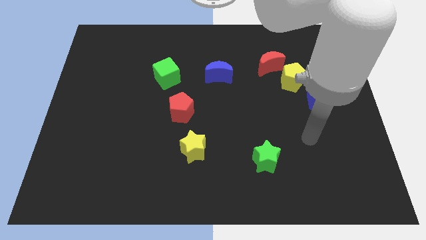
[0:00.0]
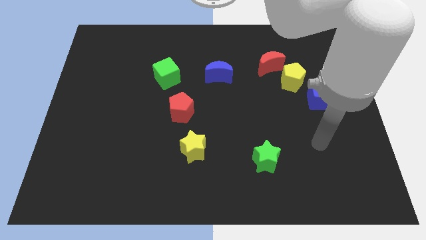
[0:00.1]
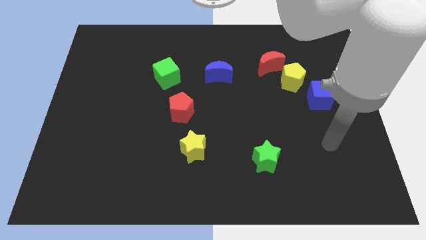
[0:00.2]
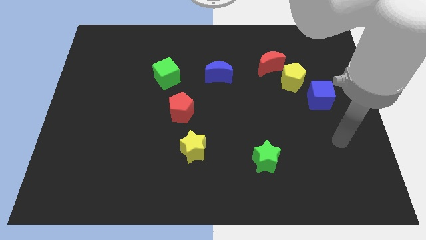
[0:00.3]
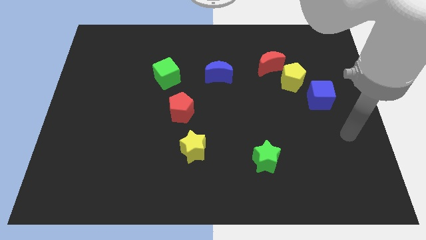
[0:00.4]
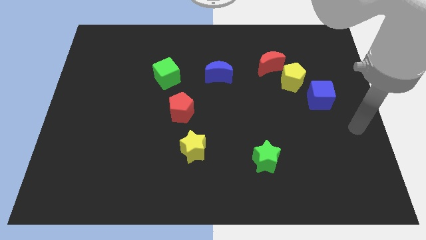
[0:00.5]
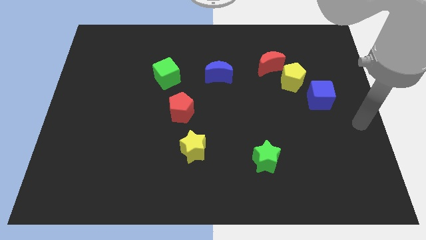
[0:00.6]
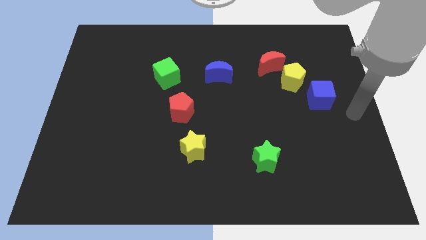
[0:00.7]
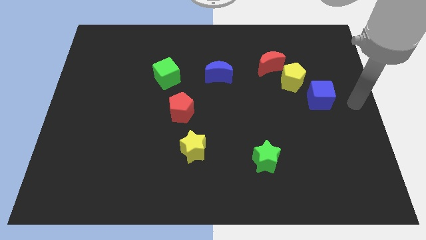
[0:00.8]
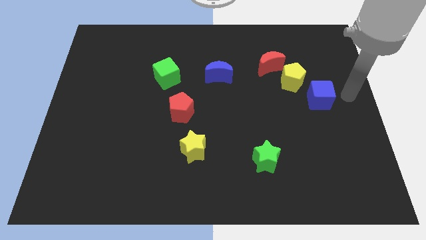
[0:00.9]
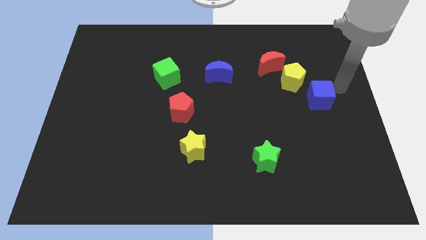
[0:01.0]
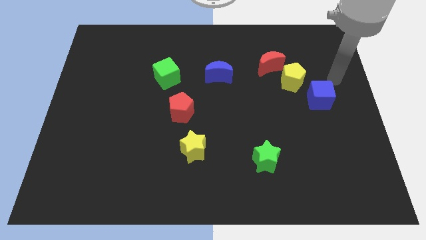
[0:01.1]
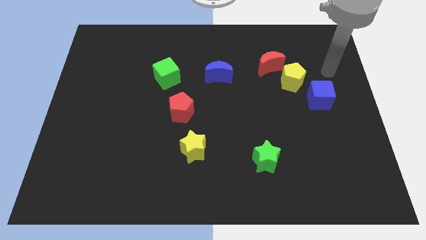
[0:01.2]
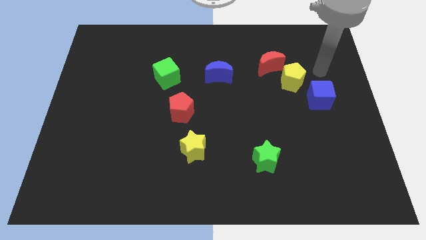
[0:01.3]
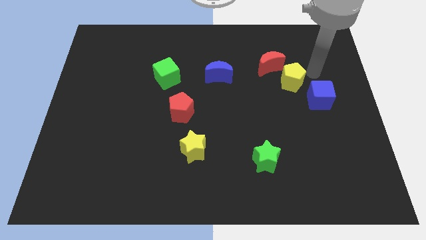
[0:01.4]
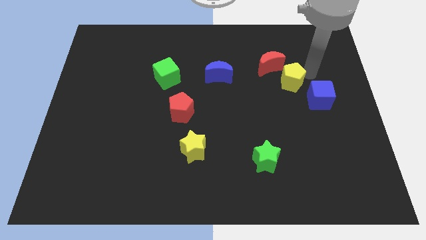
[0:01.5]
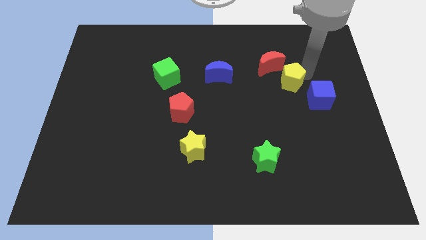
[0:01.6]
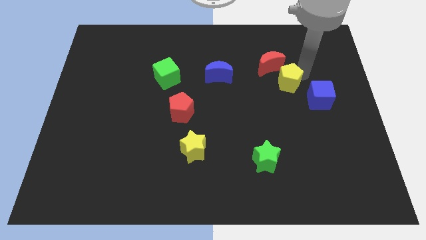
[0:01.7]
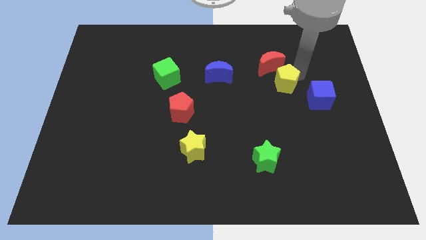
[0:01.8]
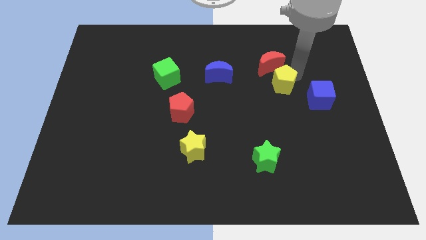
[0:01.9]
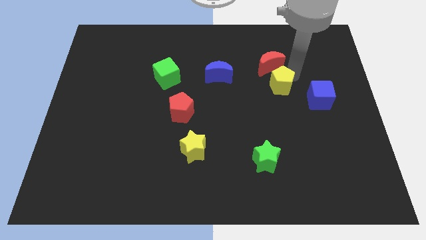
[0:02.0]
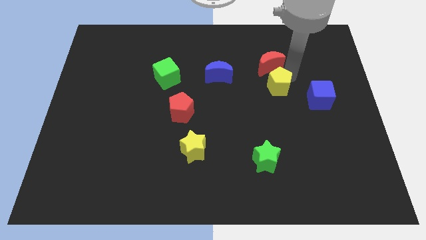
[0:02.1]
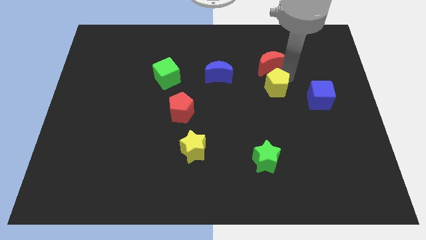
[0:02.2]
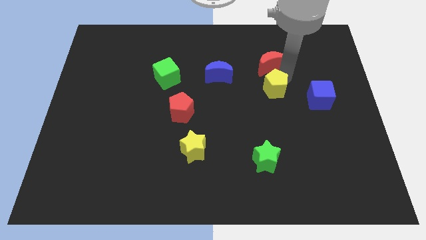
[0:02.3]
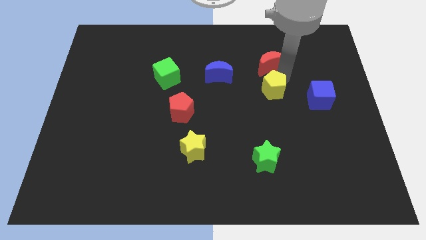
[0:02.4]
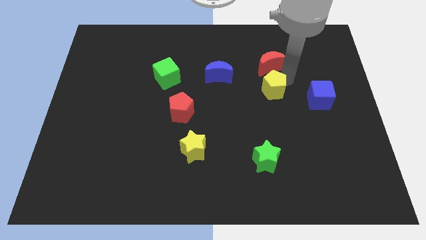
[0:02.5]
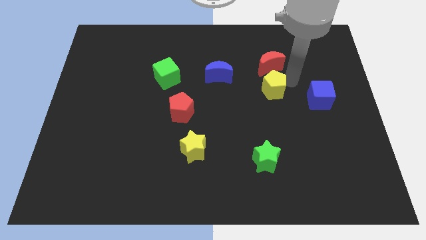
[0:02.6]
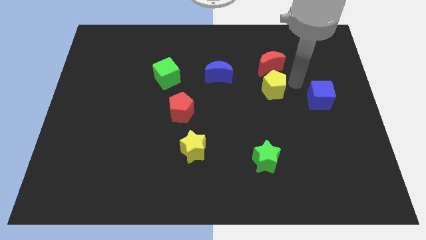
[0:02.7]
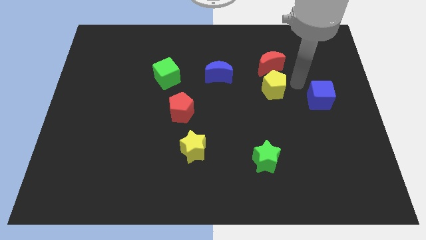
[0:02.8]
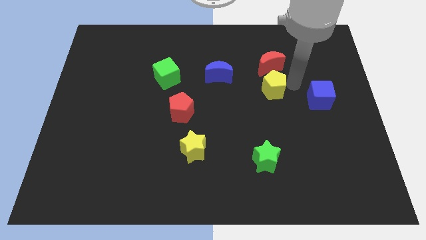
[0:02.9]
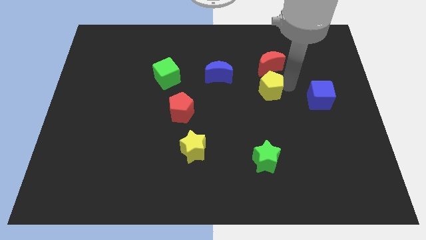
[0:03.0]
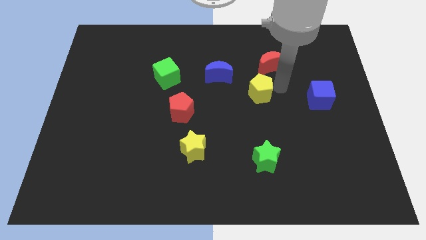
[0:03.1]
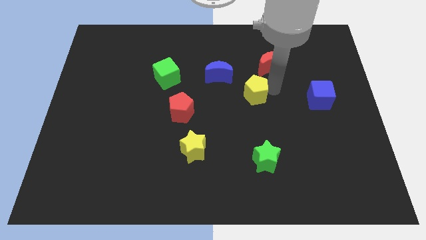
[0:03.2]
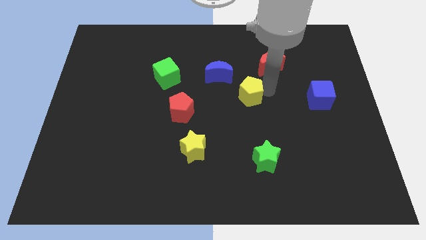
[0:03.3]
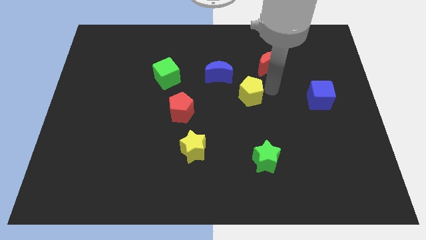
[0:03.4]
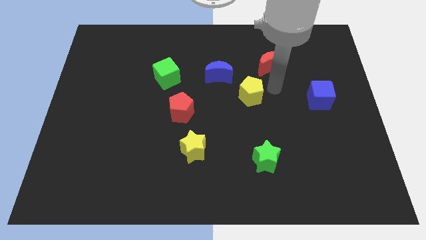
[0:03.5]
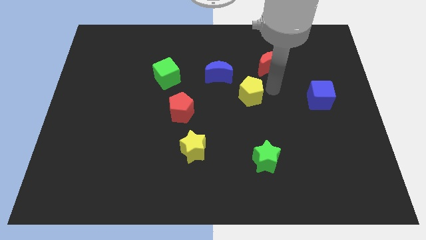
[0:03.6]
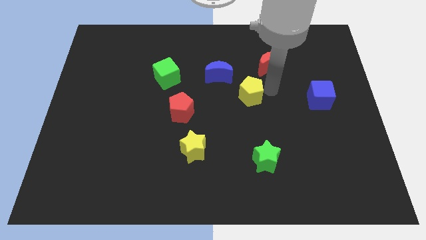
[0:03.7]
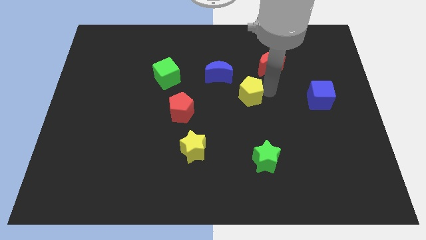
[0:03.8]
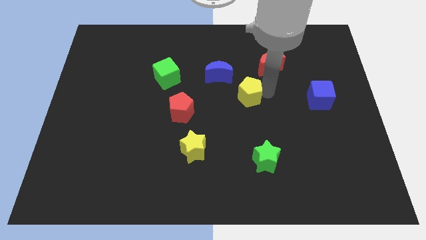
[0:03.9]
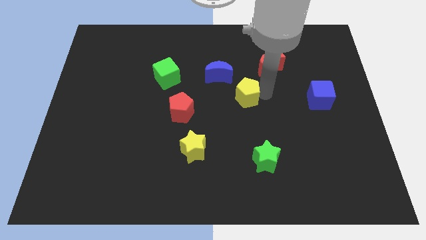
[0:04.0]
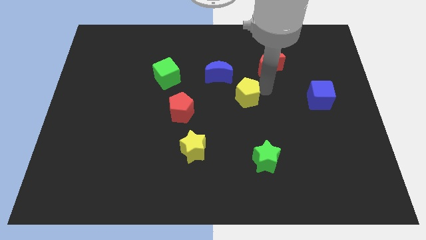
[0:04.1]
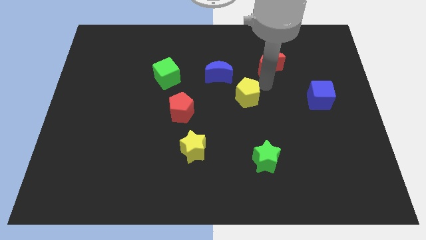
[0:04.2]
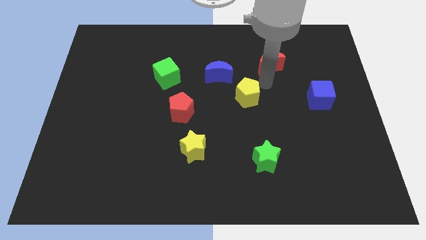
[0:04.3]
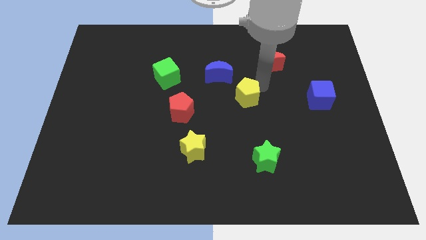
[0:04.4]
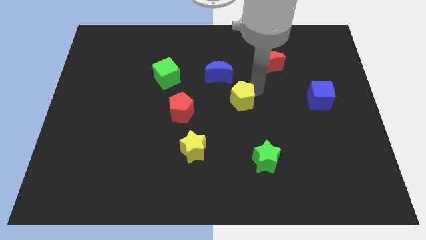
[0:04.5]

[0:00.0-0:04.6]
put the yellow pentagon just right of the red pentagon

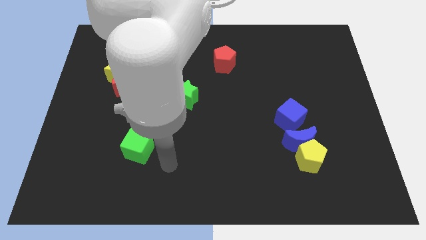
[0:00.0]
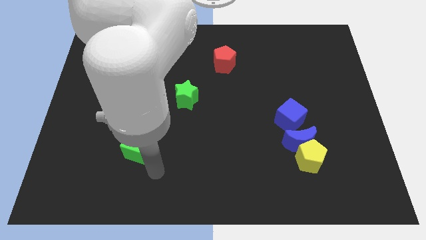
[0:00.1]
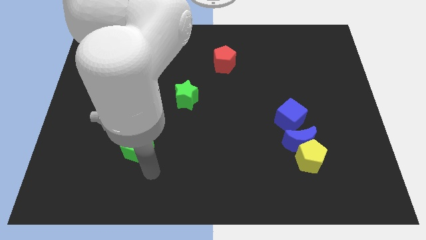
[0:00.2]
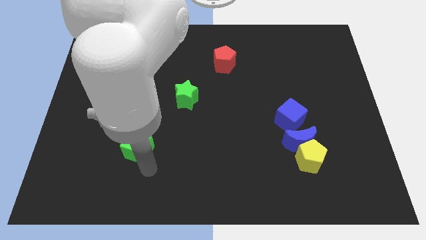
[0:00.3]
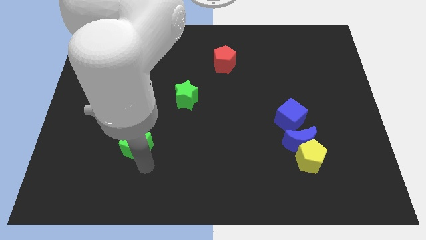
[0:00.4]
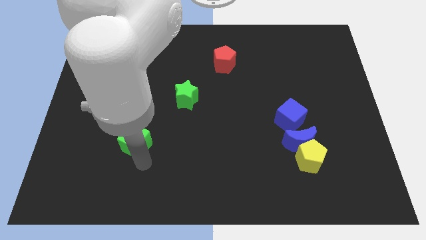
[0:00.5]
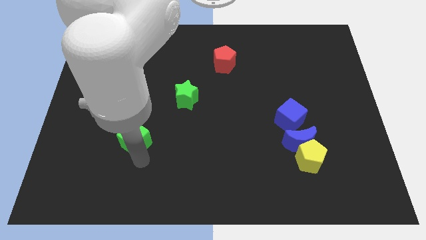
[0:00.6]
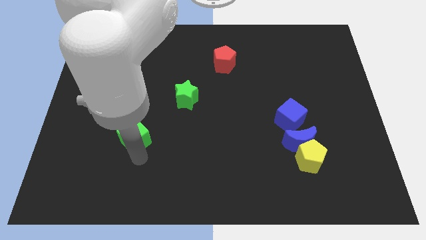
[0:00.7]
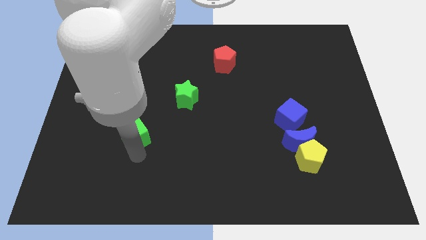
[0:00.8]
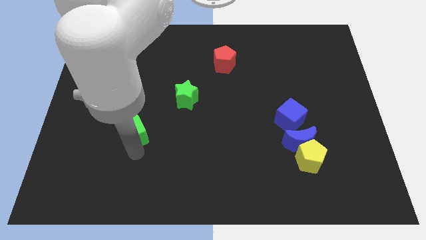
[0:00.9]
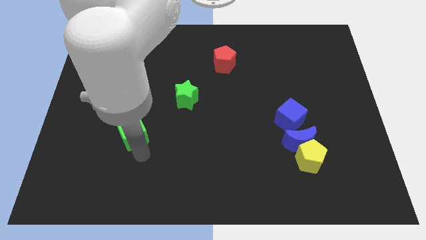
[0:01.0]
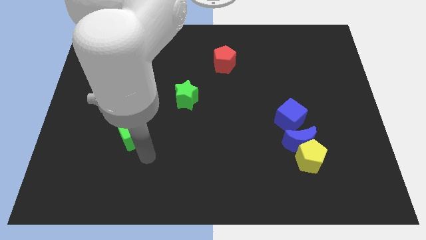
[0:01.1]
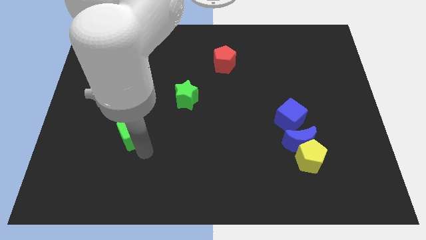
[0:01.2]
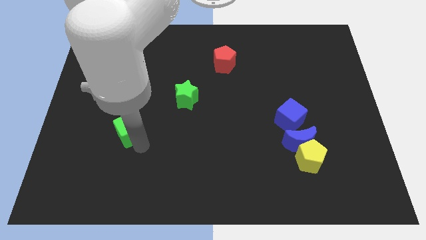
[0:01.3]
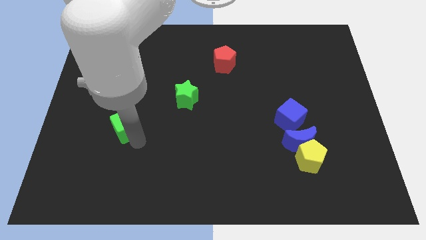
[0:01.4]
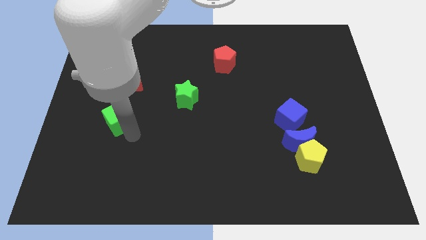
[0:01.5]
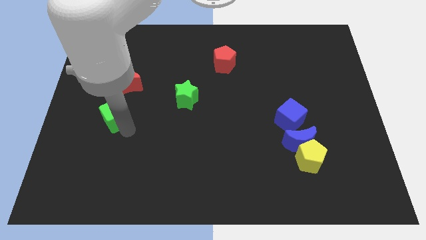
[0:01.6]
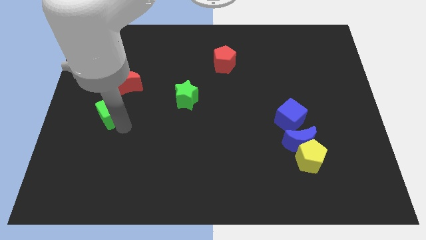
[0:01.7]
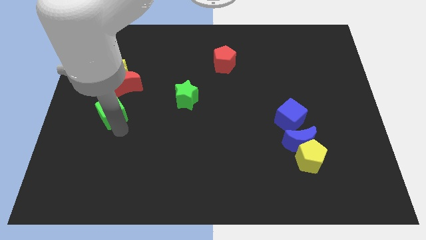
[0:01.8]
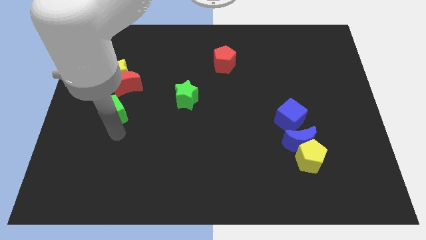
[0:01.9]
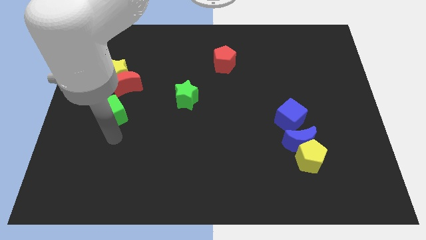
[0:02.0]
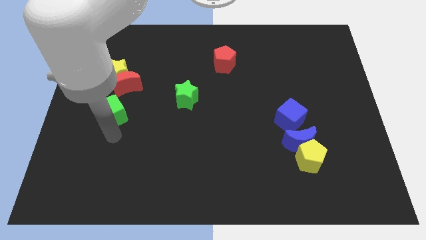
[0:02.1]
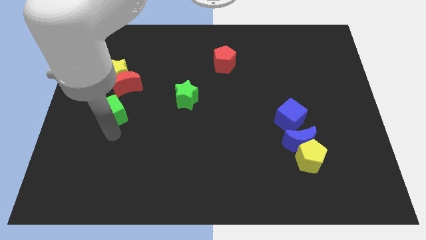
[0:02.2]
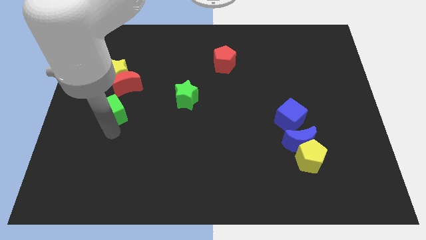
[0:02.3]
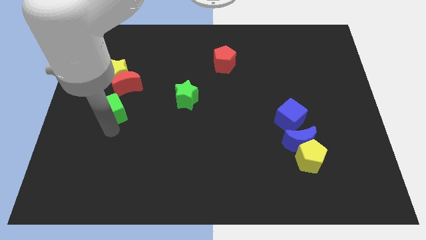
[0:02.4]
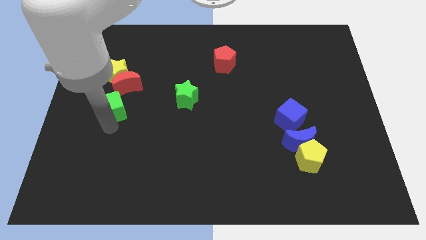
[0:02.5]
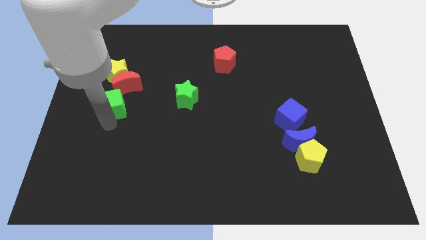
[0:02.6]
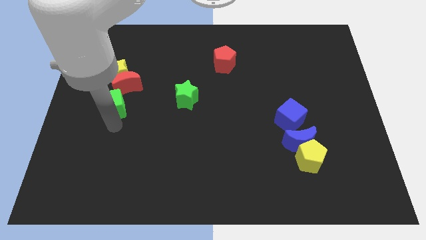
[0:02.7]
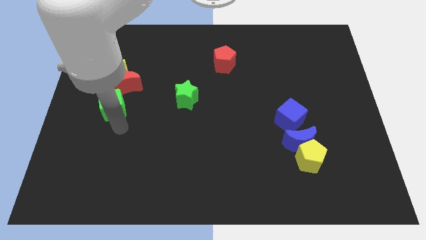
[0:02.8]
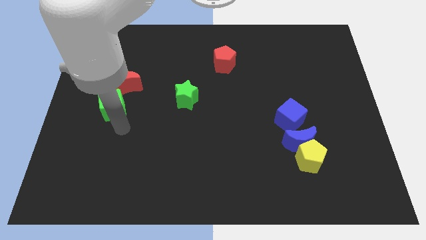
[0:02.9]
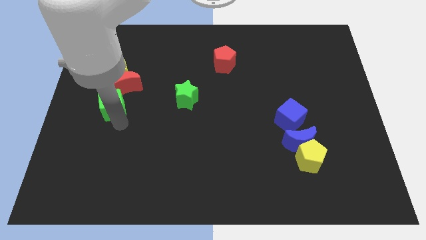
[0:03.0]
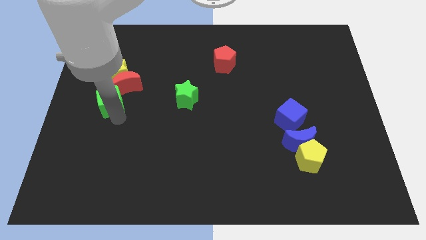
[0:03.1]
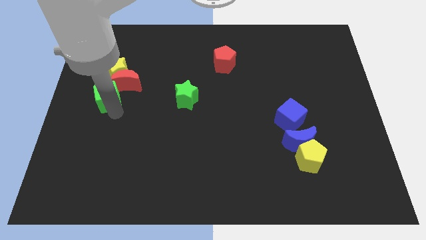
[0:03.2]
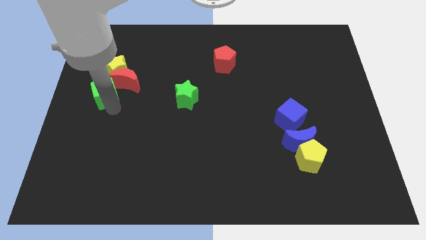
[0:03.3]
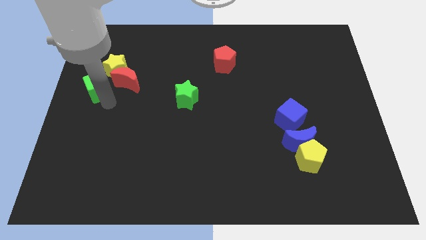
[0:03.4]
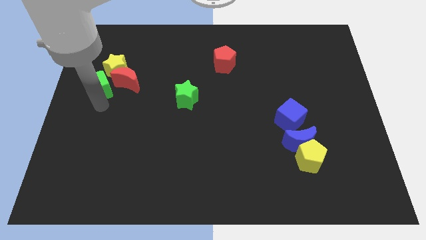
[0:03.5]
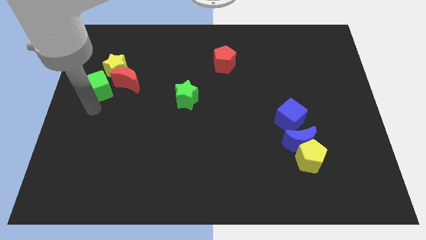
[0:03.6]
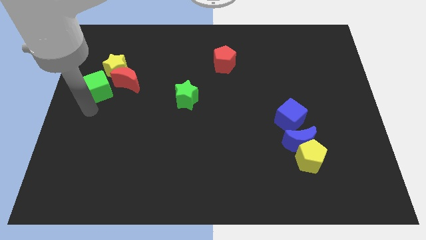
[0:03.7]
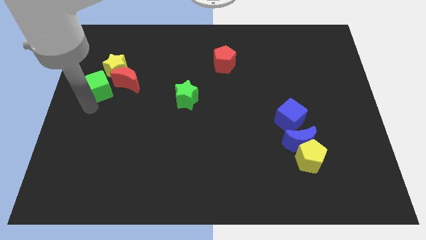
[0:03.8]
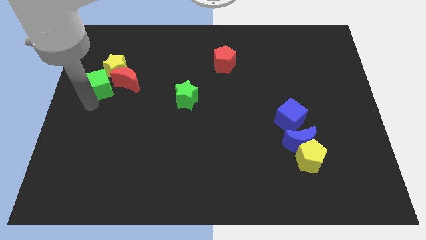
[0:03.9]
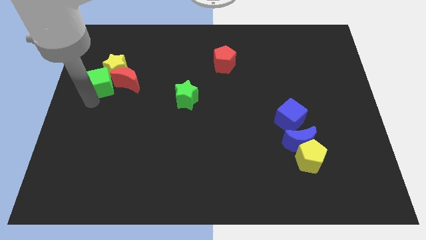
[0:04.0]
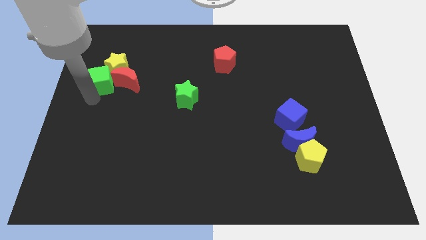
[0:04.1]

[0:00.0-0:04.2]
move the green cube diagonally up and to the left of the red moon
